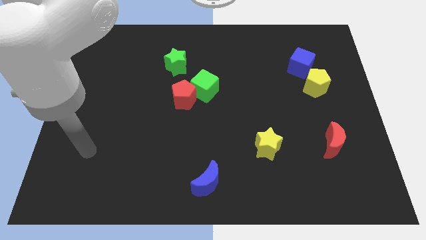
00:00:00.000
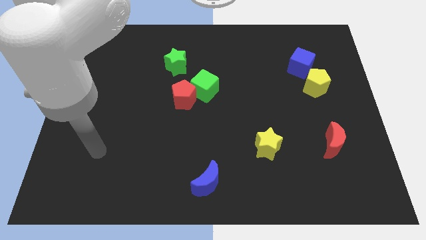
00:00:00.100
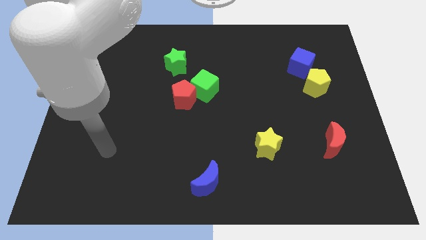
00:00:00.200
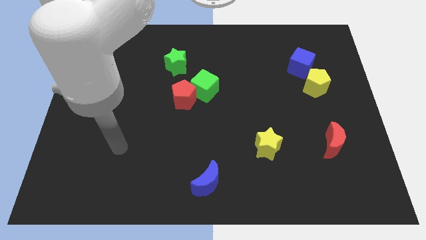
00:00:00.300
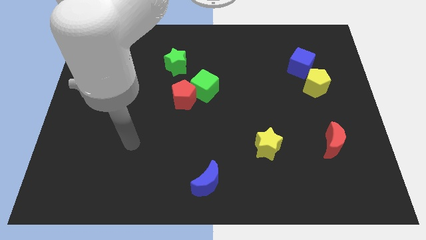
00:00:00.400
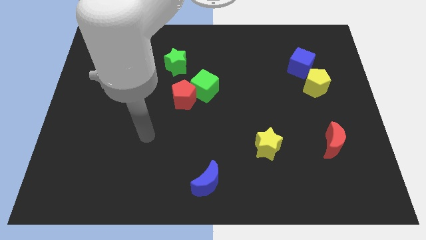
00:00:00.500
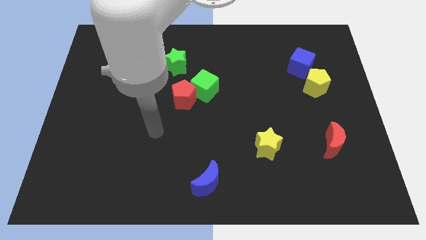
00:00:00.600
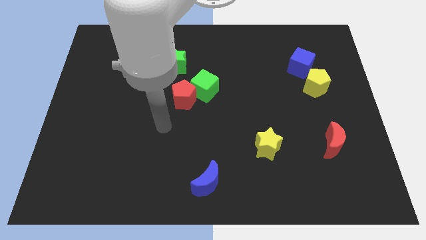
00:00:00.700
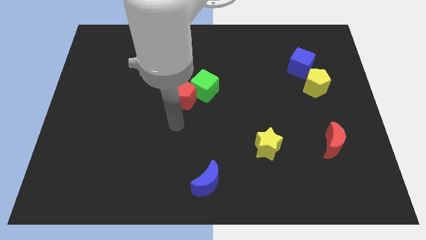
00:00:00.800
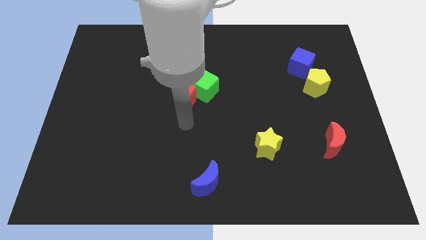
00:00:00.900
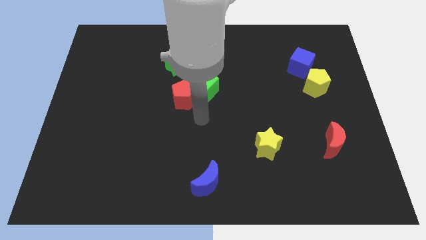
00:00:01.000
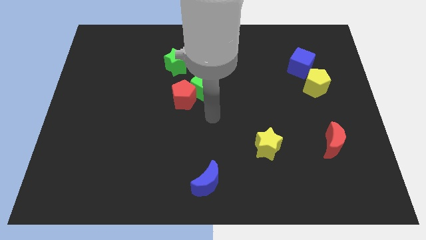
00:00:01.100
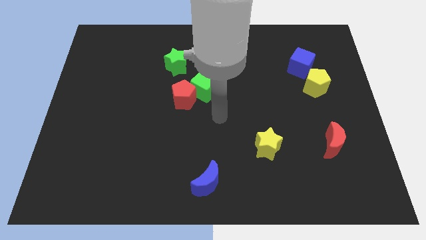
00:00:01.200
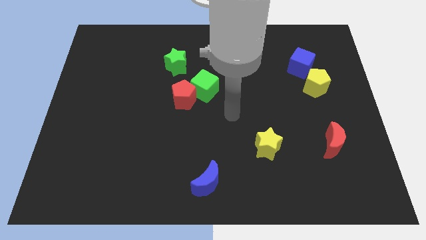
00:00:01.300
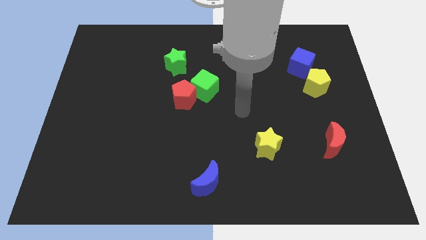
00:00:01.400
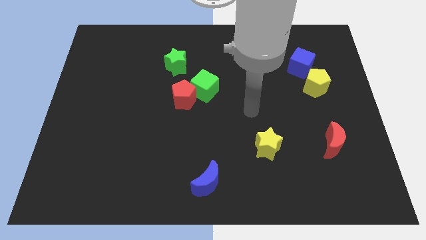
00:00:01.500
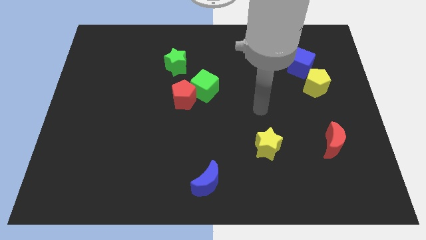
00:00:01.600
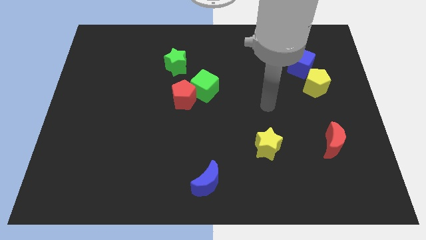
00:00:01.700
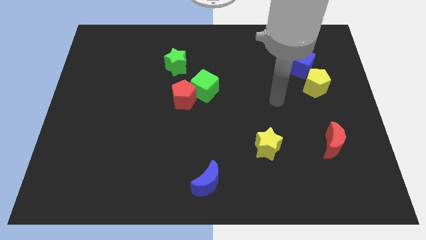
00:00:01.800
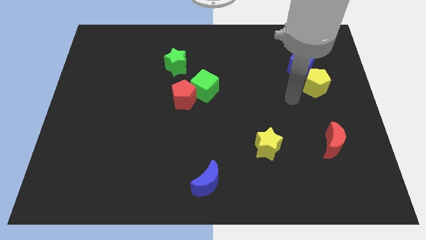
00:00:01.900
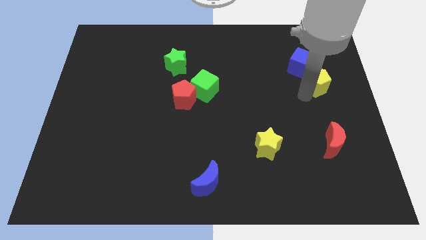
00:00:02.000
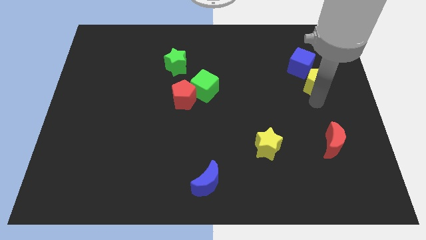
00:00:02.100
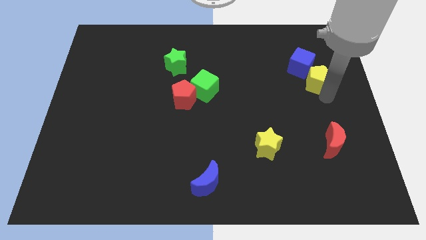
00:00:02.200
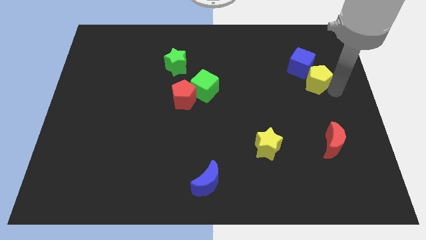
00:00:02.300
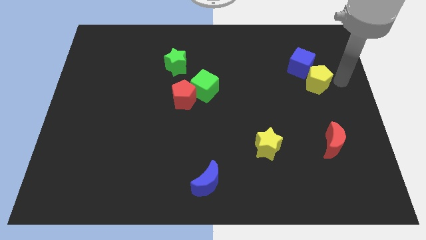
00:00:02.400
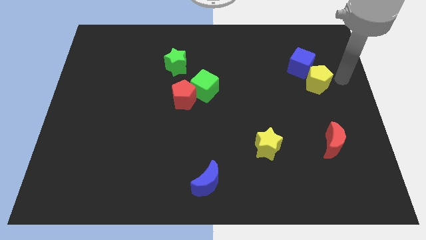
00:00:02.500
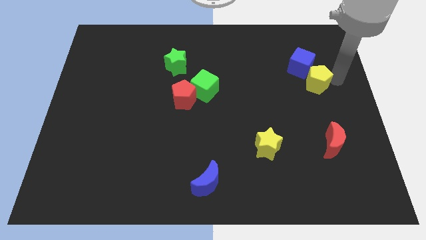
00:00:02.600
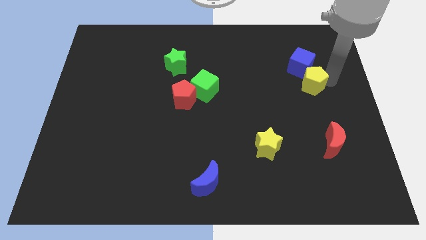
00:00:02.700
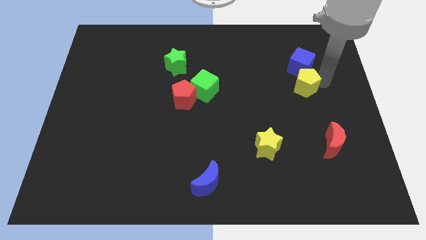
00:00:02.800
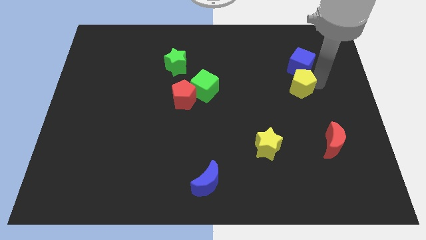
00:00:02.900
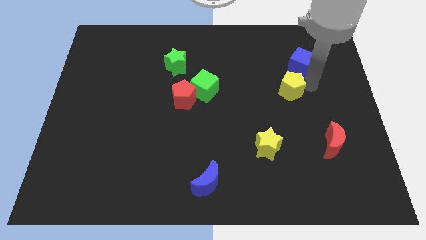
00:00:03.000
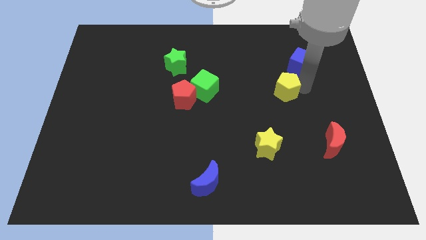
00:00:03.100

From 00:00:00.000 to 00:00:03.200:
slightly slide the yellow pentagon left

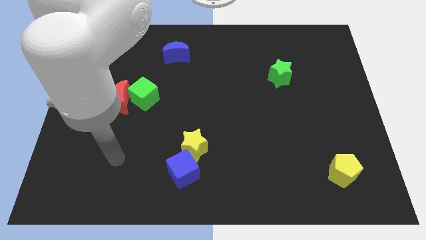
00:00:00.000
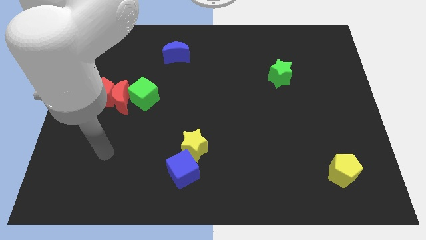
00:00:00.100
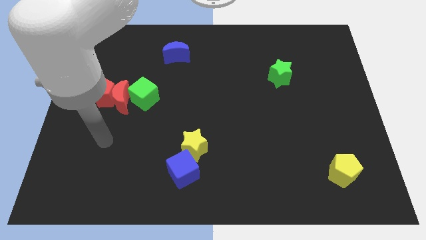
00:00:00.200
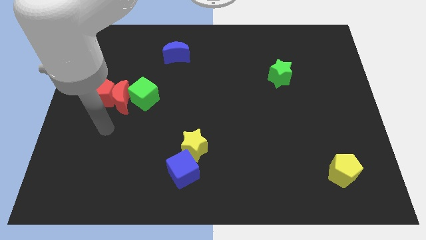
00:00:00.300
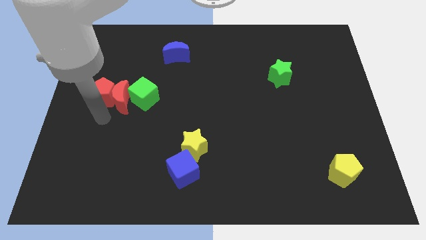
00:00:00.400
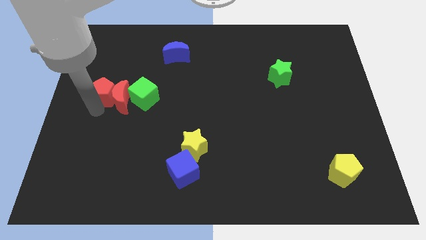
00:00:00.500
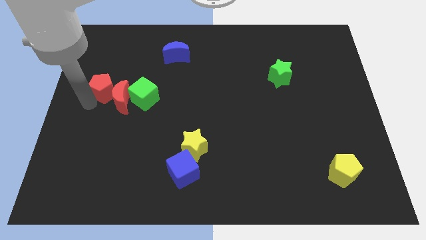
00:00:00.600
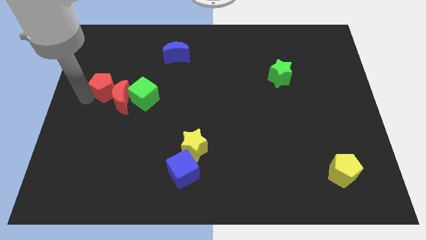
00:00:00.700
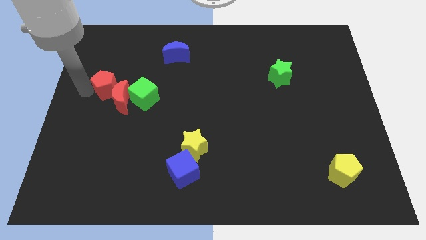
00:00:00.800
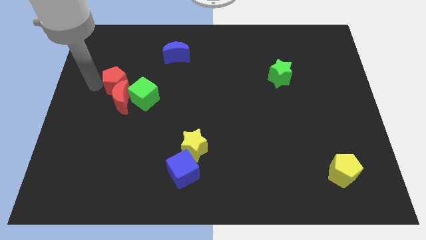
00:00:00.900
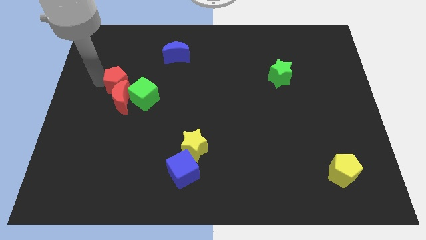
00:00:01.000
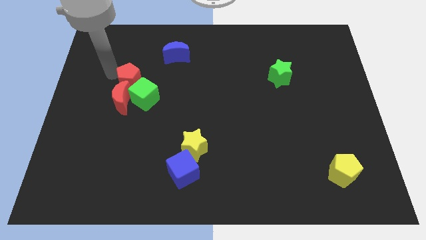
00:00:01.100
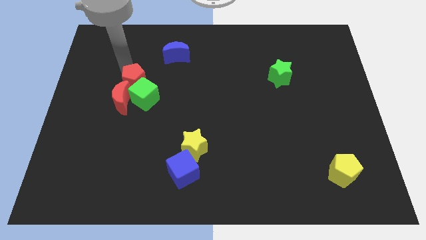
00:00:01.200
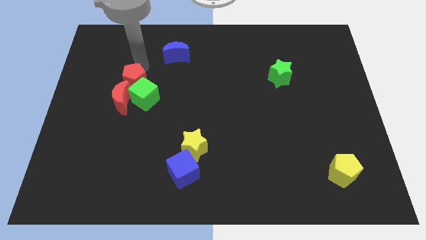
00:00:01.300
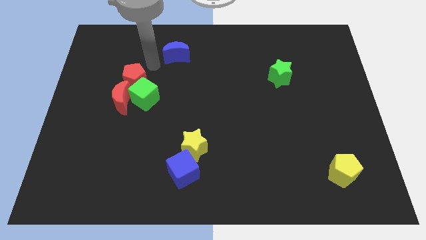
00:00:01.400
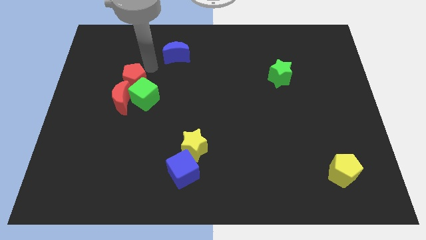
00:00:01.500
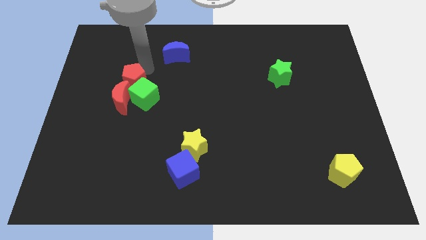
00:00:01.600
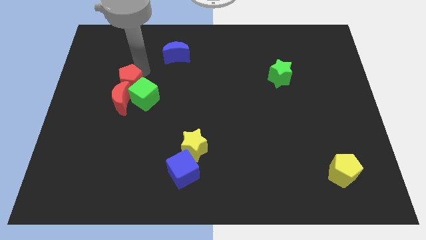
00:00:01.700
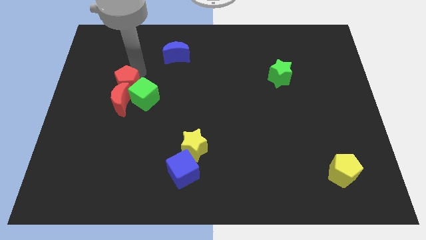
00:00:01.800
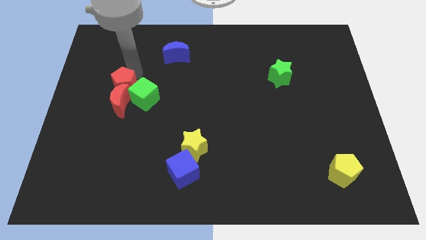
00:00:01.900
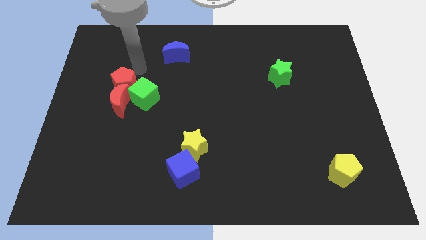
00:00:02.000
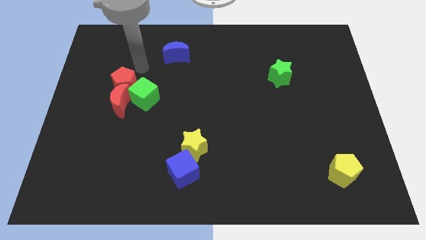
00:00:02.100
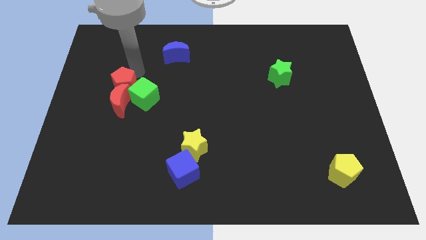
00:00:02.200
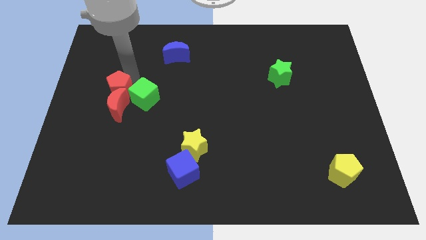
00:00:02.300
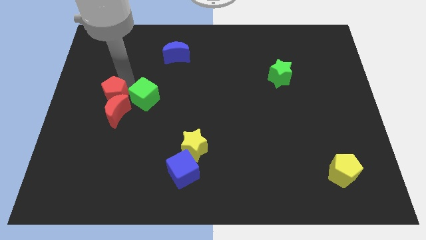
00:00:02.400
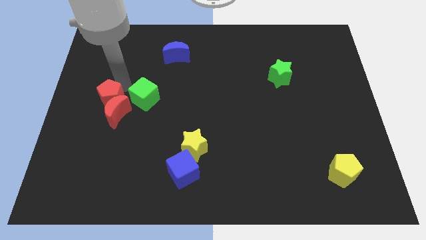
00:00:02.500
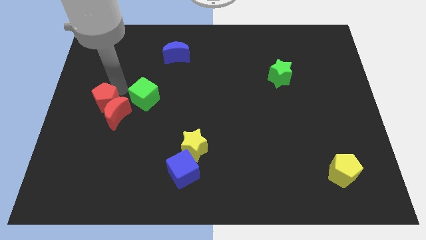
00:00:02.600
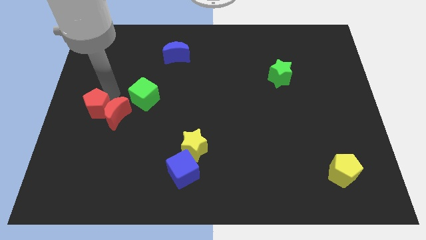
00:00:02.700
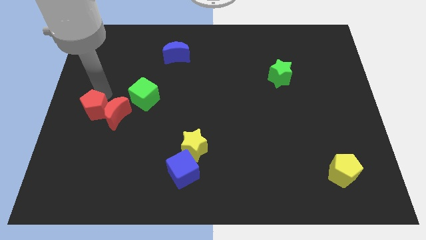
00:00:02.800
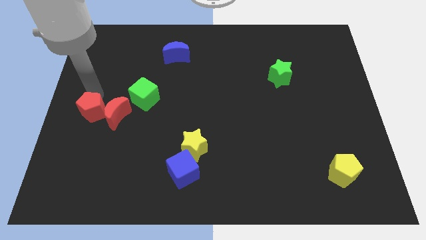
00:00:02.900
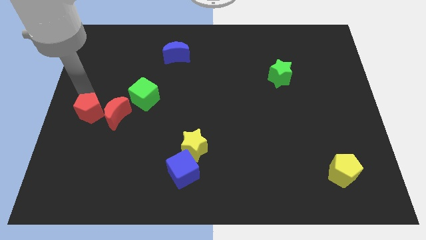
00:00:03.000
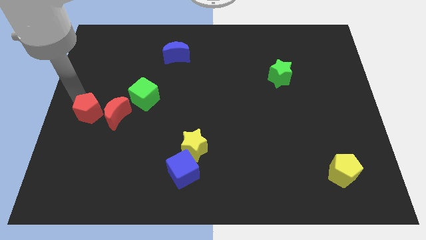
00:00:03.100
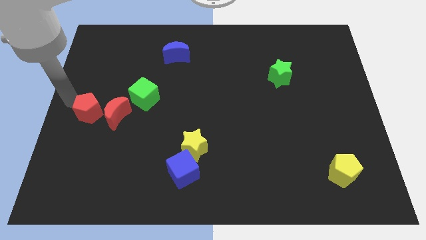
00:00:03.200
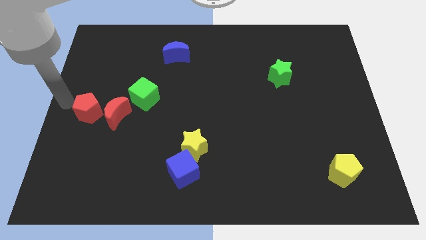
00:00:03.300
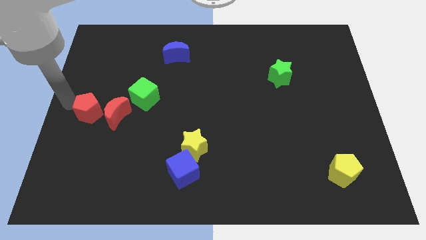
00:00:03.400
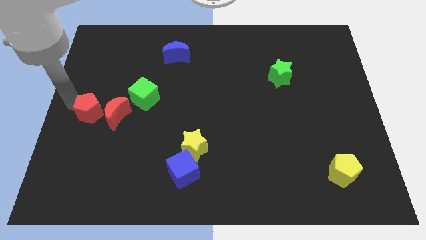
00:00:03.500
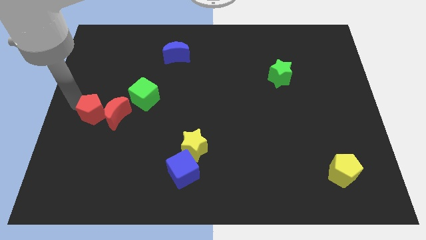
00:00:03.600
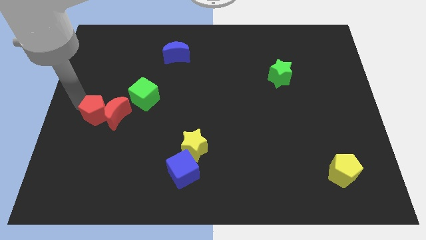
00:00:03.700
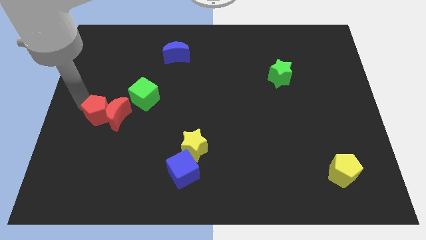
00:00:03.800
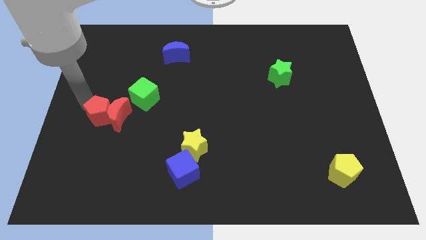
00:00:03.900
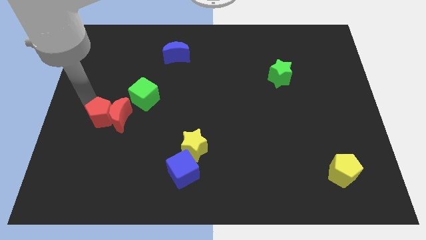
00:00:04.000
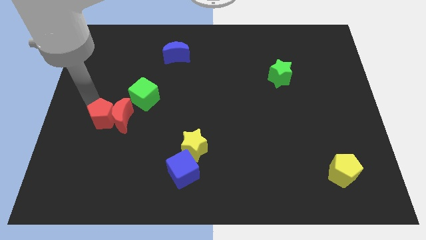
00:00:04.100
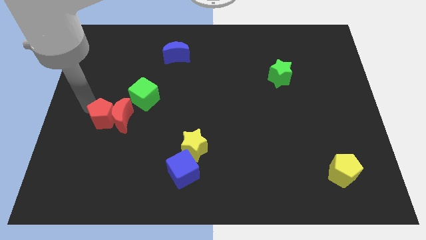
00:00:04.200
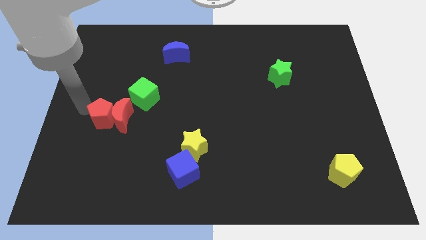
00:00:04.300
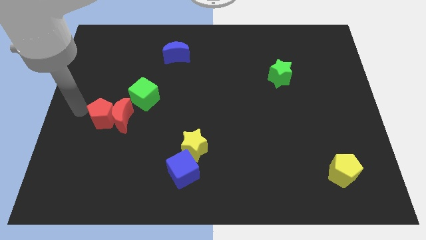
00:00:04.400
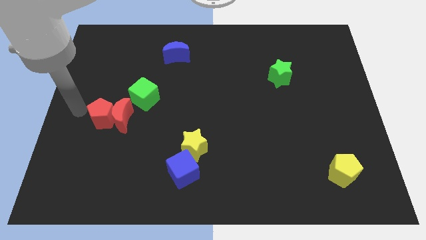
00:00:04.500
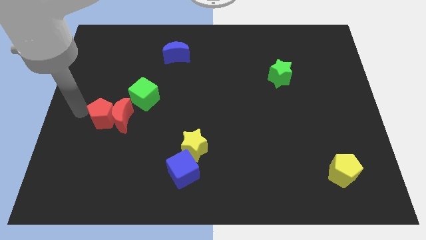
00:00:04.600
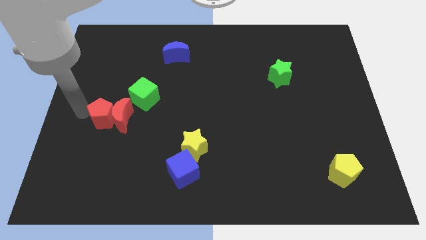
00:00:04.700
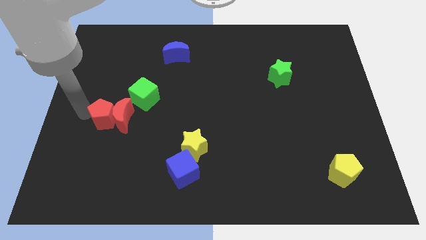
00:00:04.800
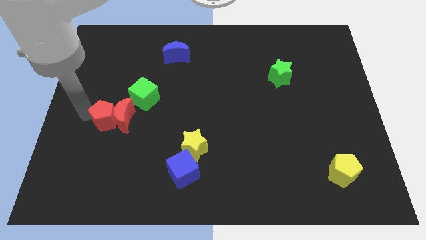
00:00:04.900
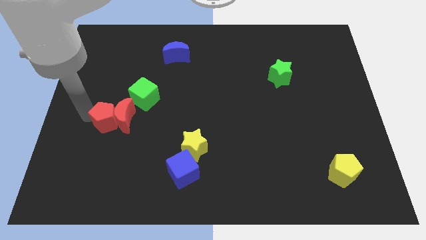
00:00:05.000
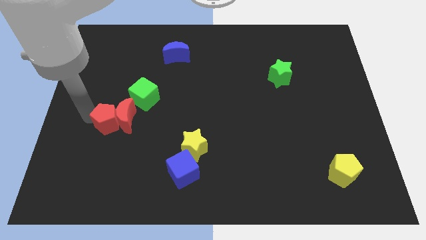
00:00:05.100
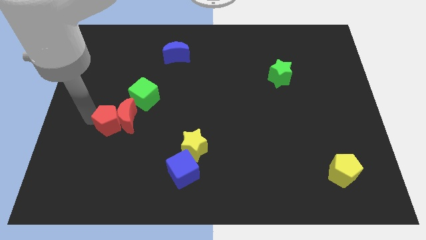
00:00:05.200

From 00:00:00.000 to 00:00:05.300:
push the red pentagon somewhat diagonally down and to the right
